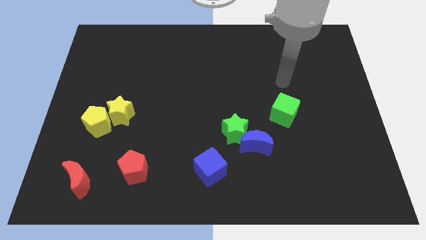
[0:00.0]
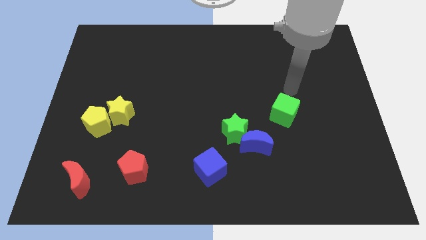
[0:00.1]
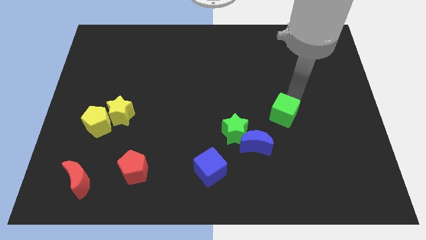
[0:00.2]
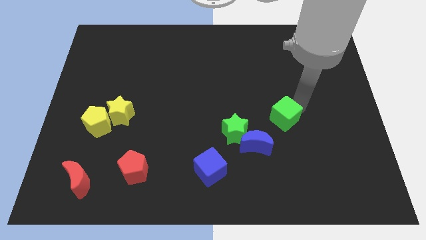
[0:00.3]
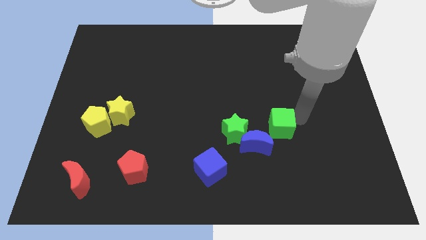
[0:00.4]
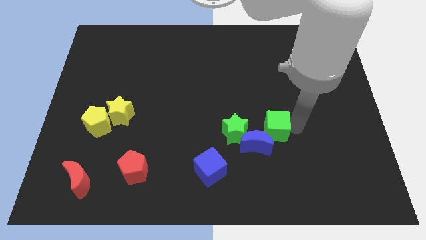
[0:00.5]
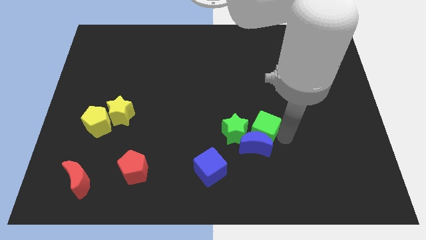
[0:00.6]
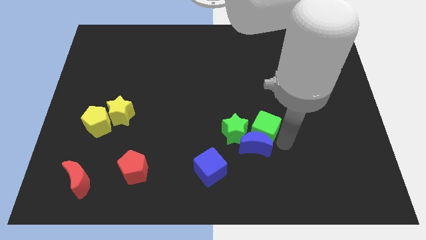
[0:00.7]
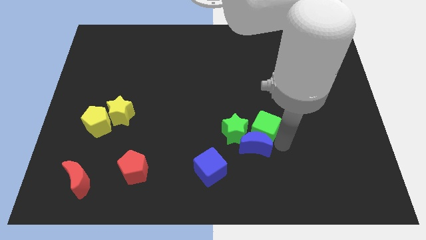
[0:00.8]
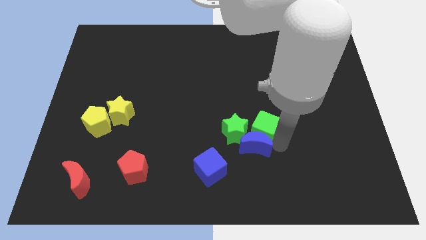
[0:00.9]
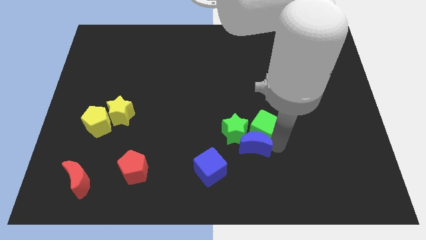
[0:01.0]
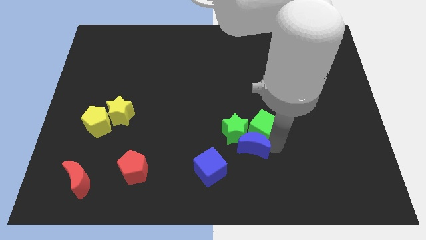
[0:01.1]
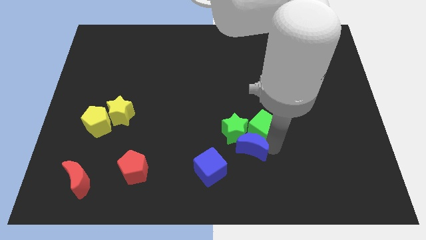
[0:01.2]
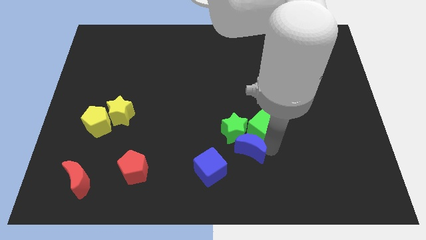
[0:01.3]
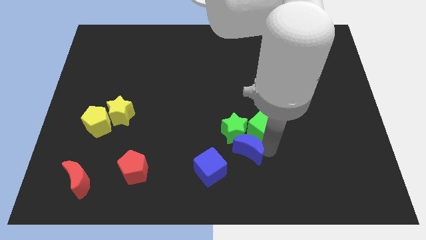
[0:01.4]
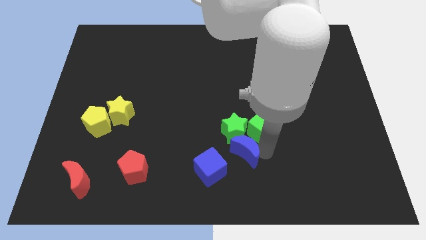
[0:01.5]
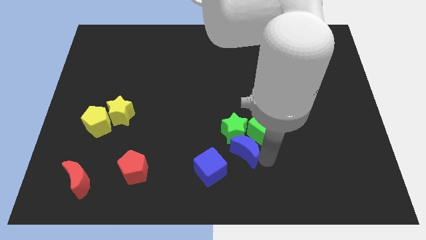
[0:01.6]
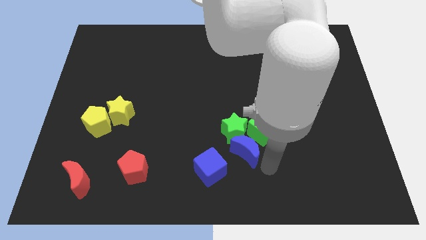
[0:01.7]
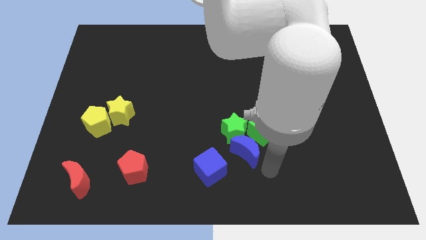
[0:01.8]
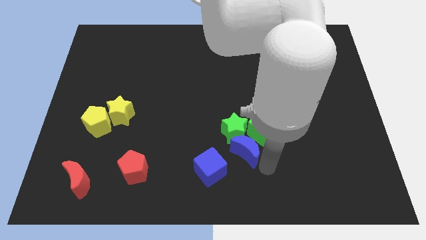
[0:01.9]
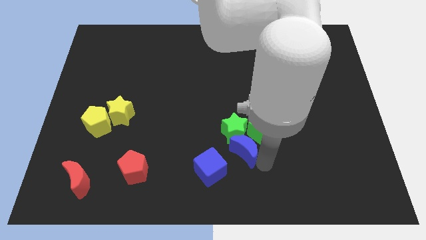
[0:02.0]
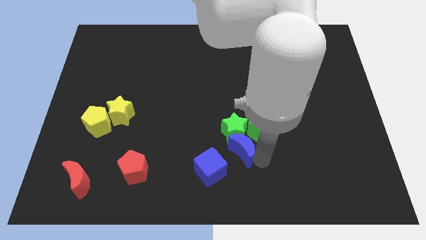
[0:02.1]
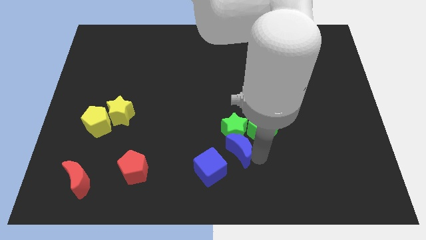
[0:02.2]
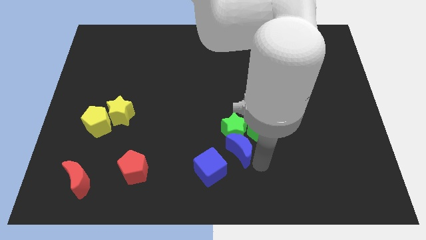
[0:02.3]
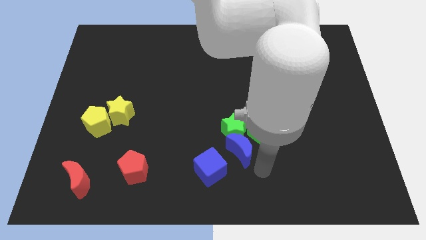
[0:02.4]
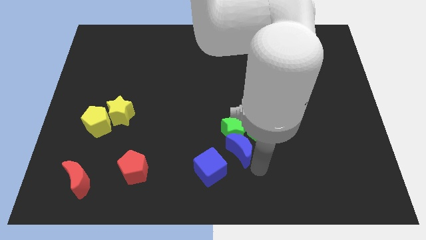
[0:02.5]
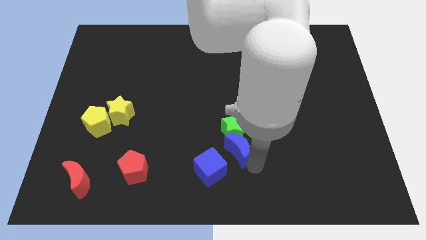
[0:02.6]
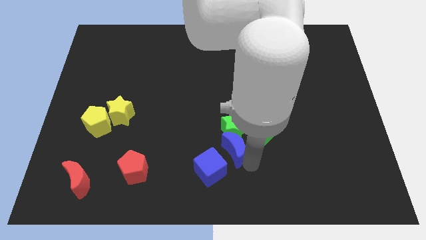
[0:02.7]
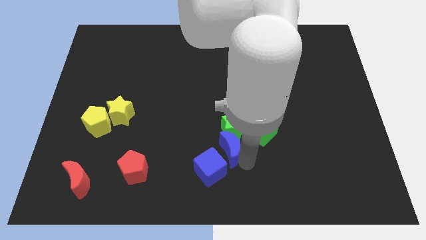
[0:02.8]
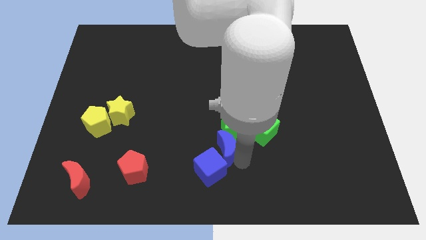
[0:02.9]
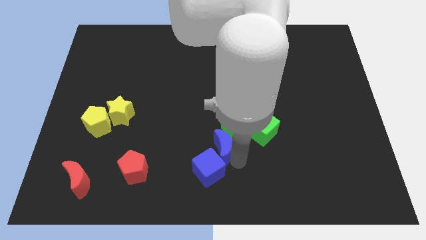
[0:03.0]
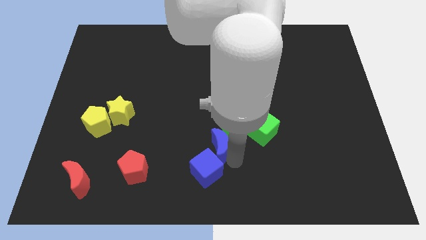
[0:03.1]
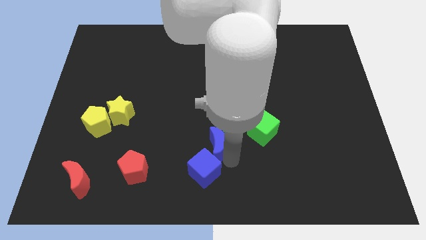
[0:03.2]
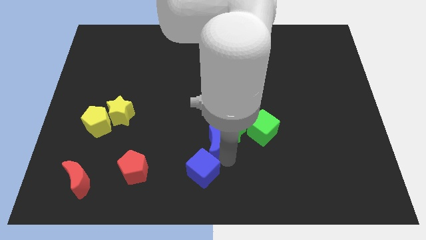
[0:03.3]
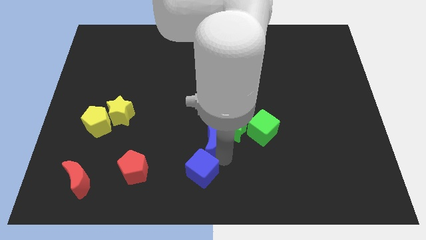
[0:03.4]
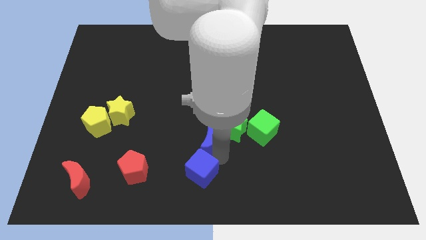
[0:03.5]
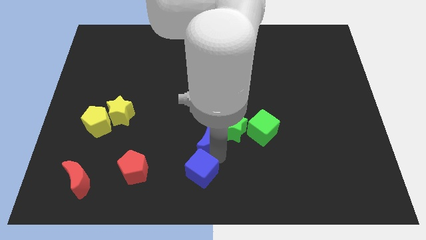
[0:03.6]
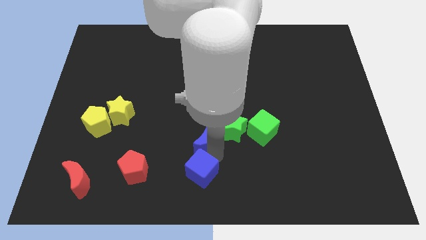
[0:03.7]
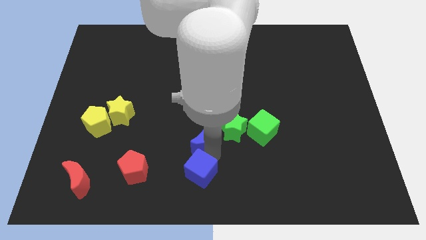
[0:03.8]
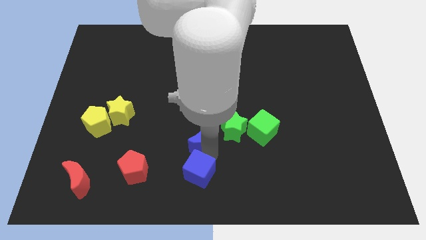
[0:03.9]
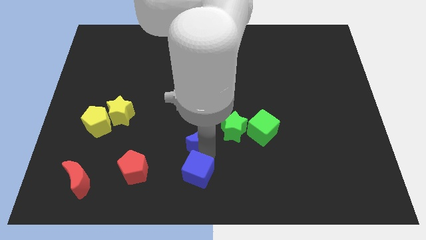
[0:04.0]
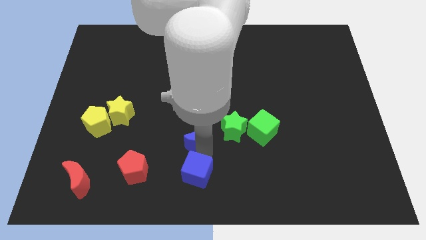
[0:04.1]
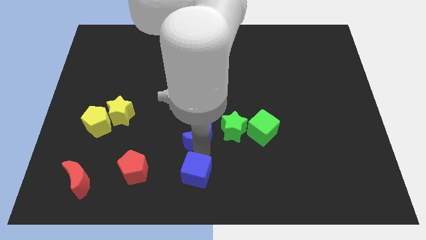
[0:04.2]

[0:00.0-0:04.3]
push the blue moon up and then to the left slightly

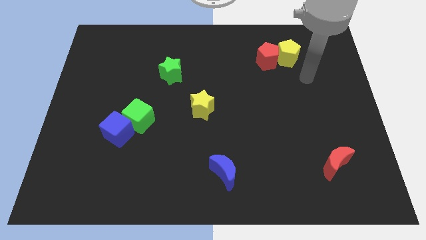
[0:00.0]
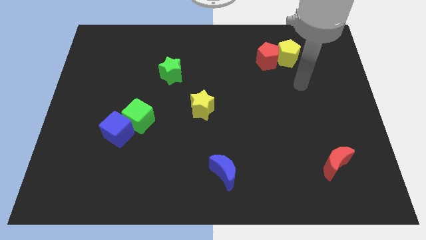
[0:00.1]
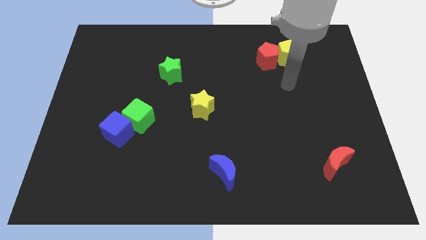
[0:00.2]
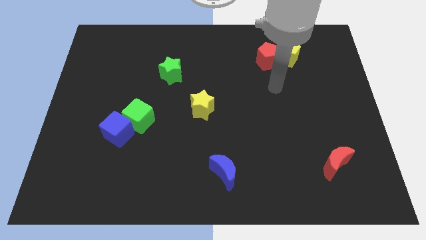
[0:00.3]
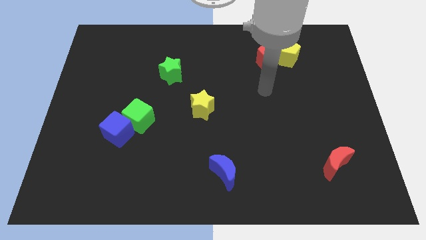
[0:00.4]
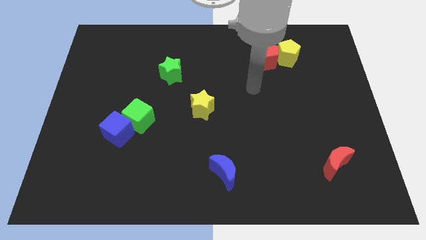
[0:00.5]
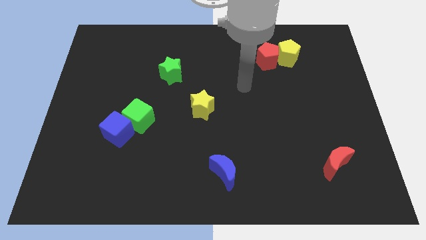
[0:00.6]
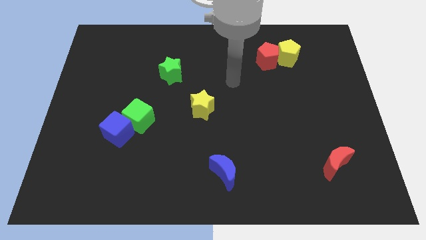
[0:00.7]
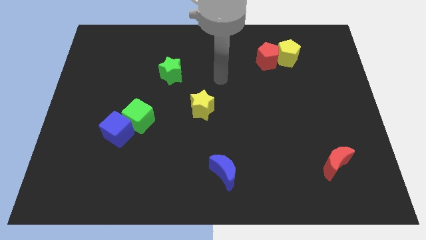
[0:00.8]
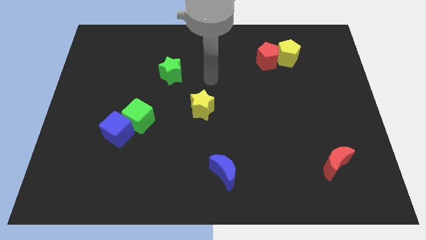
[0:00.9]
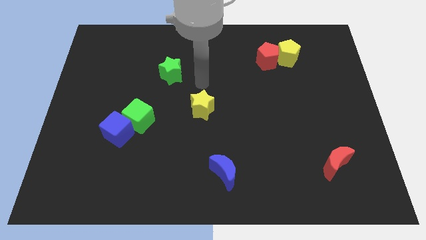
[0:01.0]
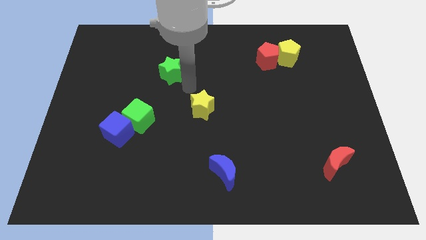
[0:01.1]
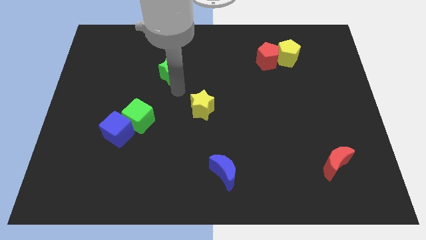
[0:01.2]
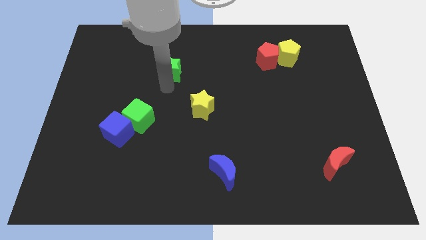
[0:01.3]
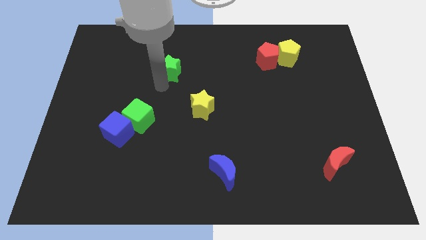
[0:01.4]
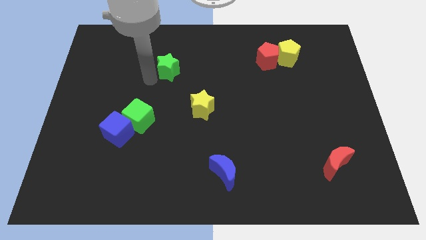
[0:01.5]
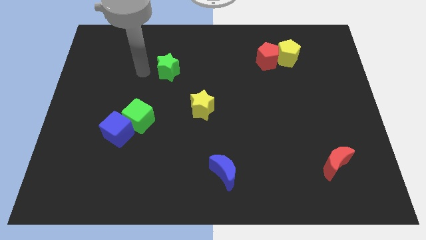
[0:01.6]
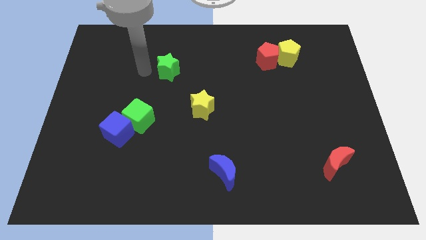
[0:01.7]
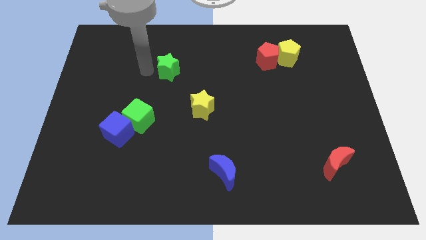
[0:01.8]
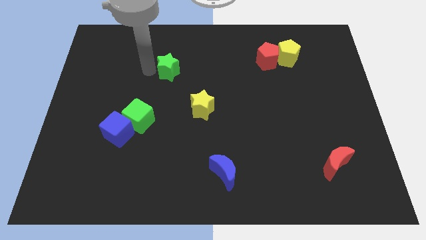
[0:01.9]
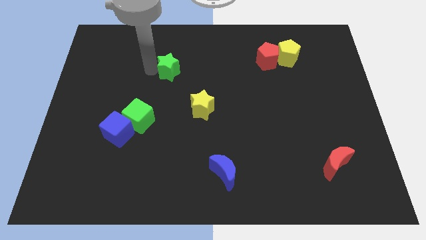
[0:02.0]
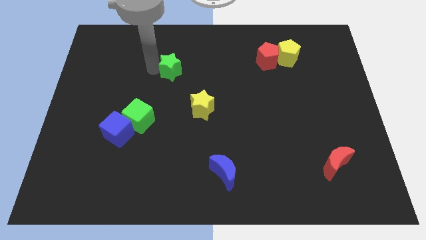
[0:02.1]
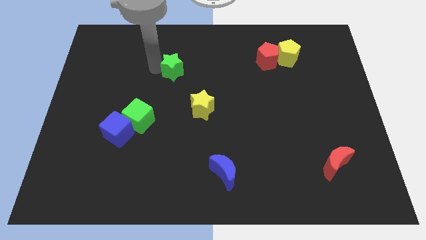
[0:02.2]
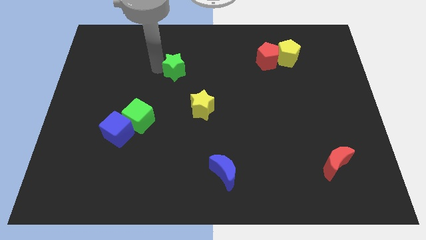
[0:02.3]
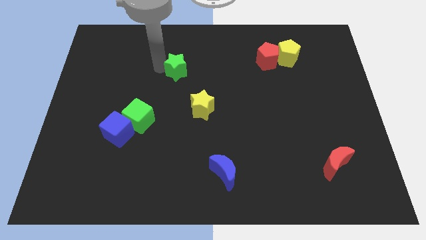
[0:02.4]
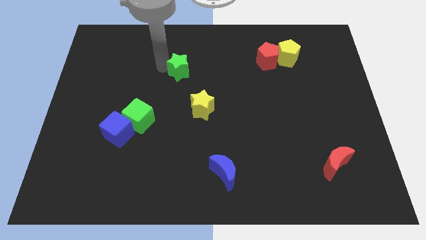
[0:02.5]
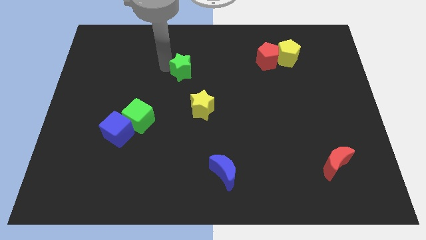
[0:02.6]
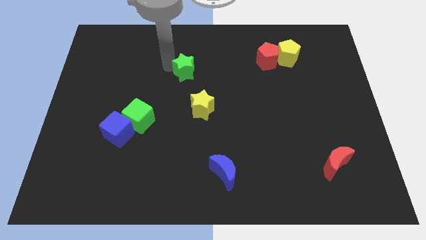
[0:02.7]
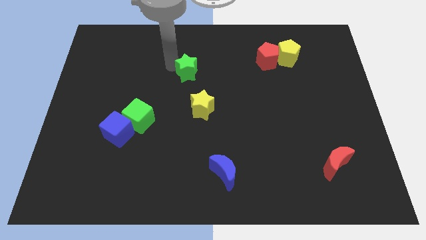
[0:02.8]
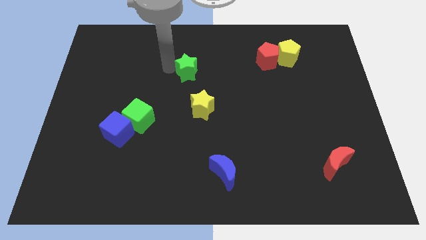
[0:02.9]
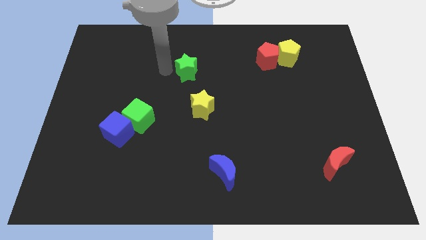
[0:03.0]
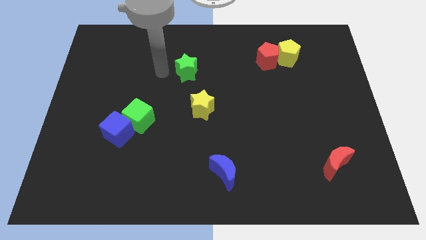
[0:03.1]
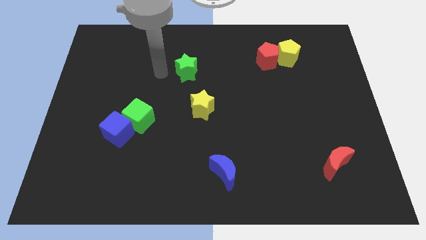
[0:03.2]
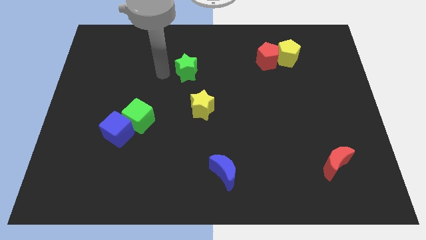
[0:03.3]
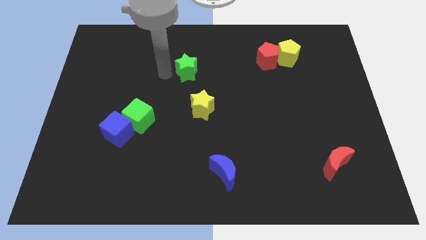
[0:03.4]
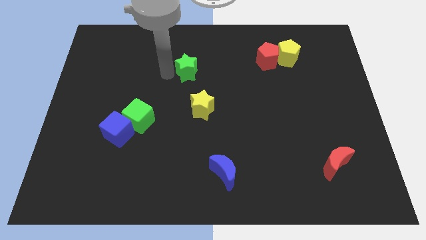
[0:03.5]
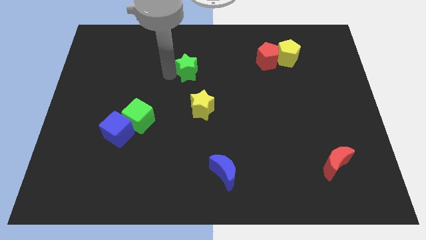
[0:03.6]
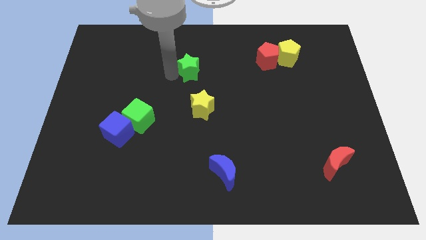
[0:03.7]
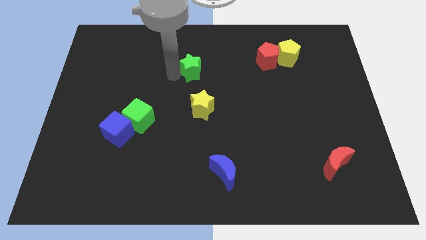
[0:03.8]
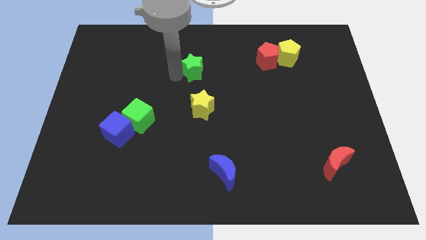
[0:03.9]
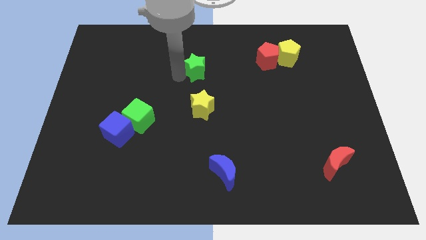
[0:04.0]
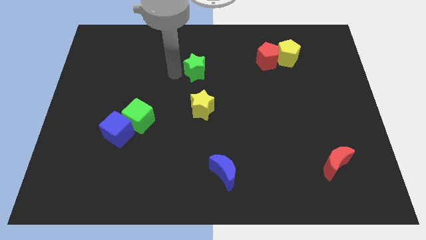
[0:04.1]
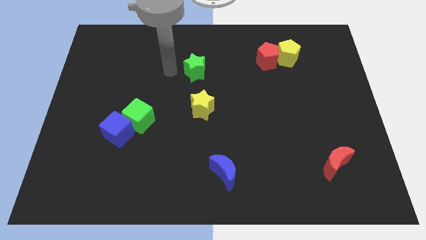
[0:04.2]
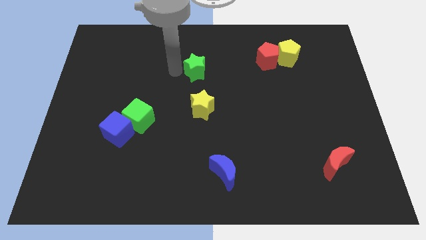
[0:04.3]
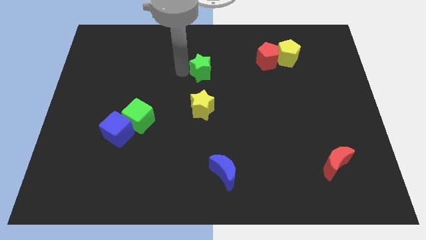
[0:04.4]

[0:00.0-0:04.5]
slightly slide the green star right
